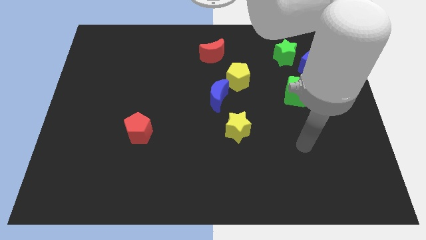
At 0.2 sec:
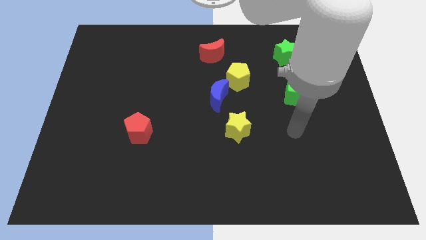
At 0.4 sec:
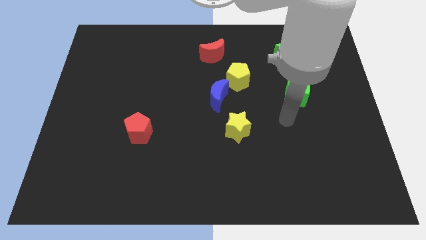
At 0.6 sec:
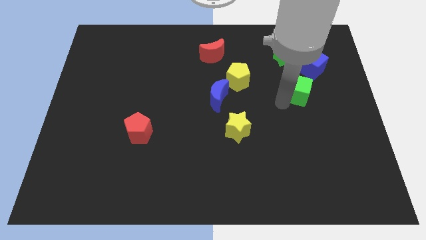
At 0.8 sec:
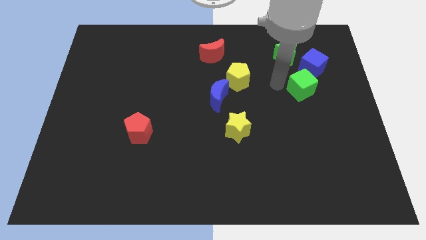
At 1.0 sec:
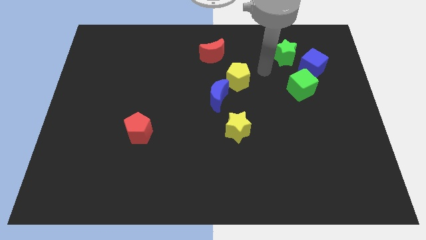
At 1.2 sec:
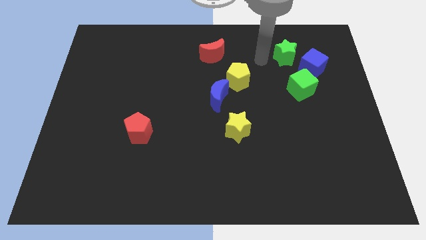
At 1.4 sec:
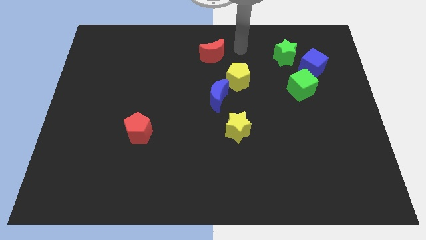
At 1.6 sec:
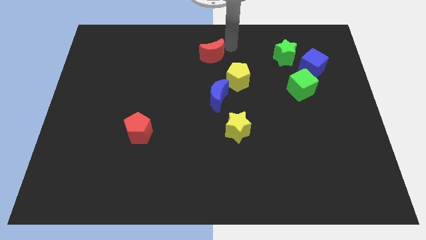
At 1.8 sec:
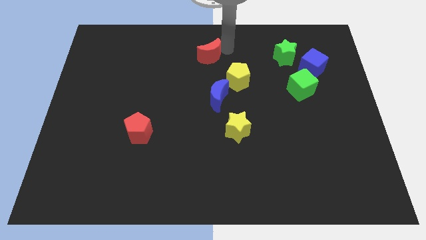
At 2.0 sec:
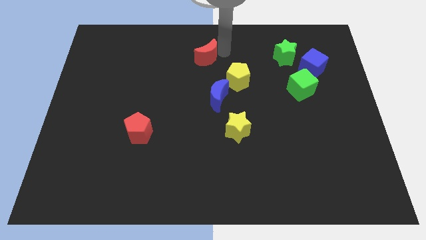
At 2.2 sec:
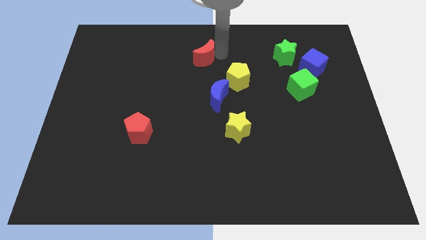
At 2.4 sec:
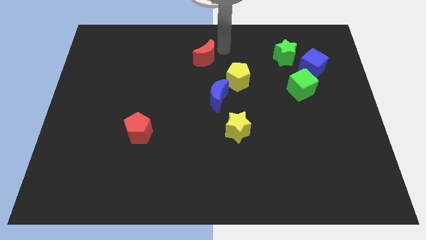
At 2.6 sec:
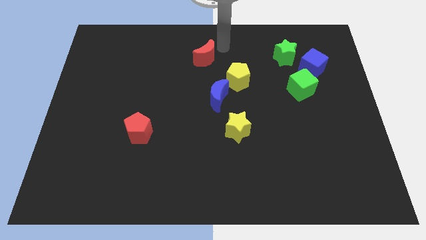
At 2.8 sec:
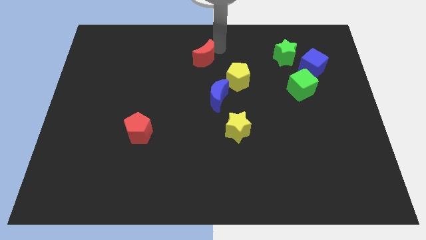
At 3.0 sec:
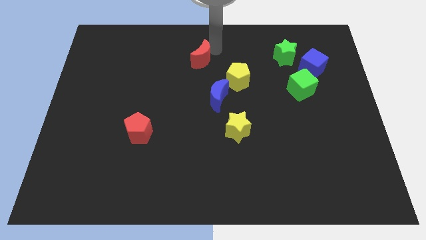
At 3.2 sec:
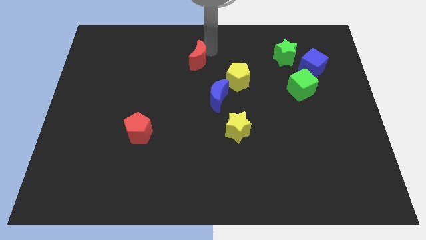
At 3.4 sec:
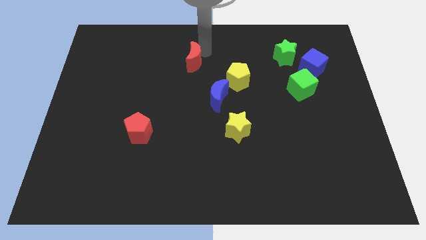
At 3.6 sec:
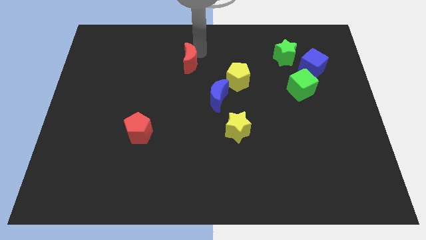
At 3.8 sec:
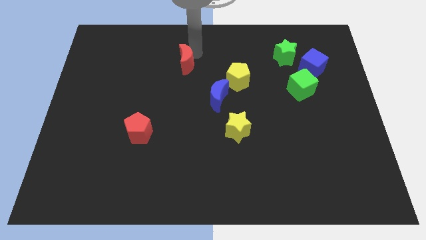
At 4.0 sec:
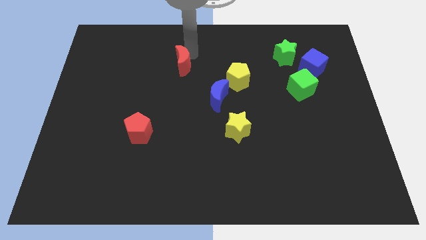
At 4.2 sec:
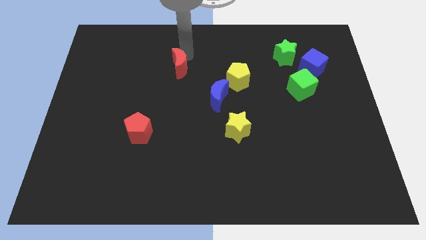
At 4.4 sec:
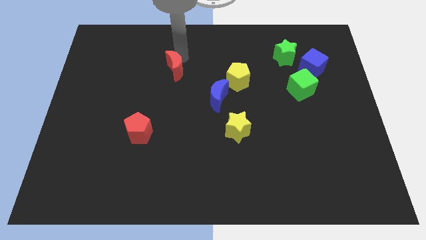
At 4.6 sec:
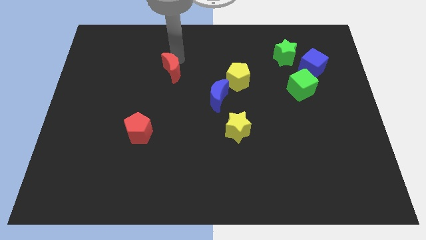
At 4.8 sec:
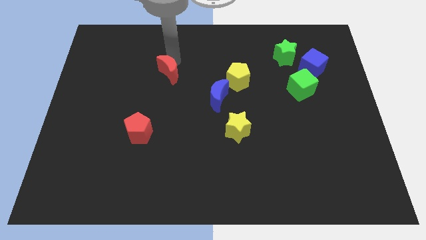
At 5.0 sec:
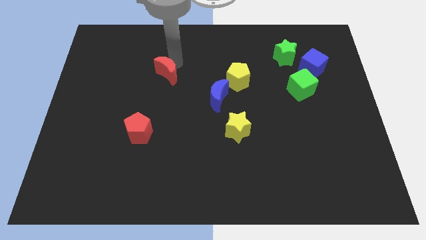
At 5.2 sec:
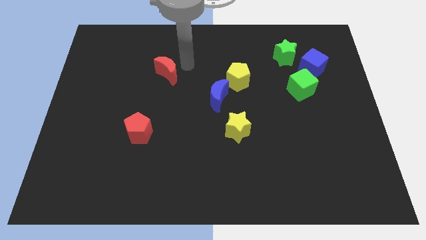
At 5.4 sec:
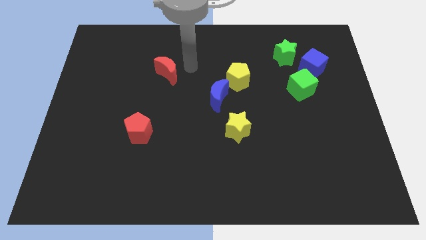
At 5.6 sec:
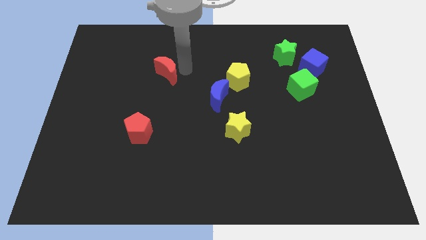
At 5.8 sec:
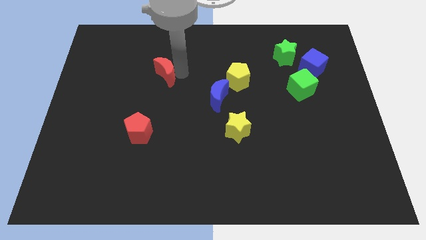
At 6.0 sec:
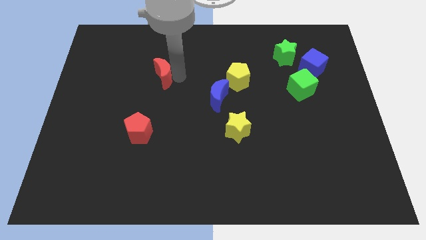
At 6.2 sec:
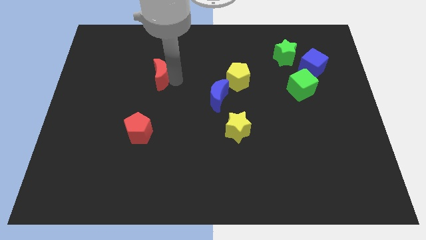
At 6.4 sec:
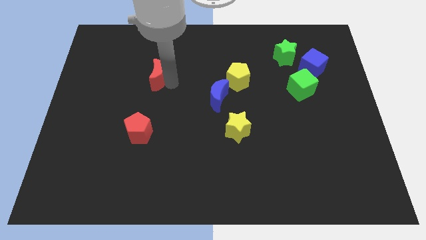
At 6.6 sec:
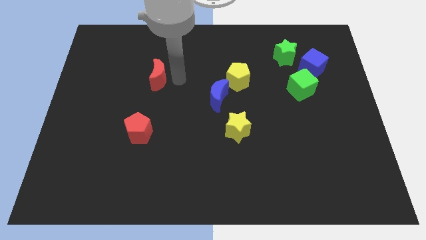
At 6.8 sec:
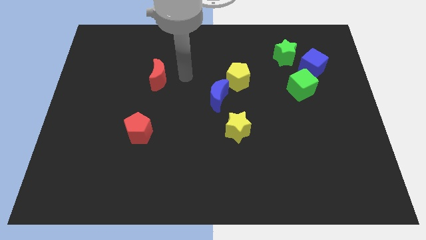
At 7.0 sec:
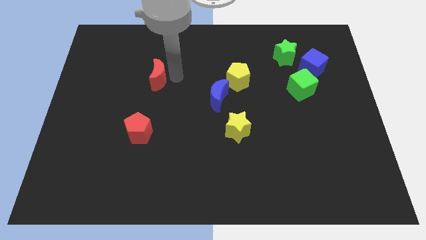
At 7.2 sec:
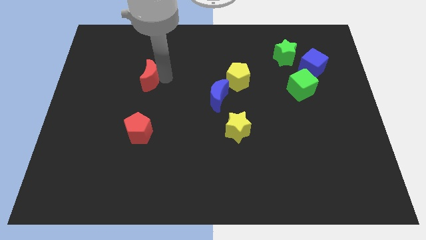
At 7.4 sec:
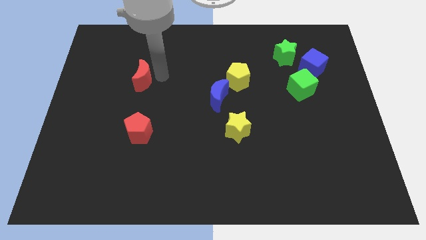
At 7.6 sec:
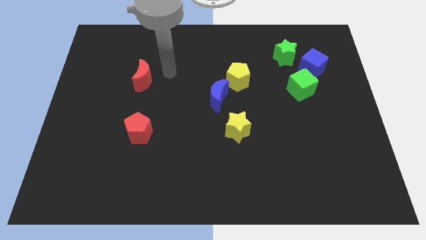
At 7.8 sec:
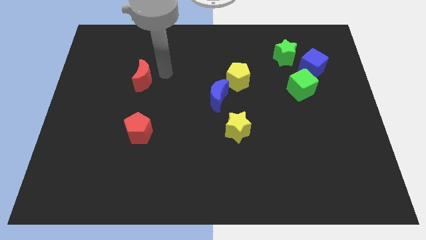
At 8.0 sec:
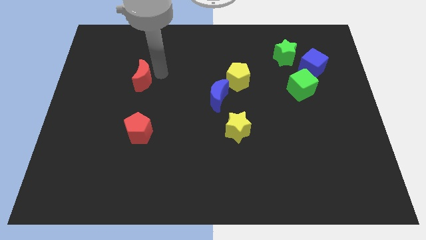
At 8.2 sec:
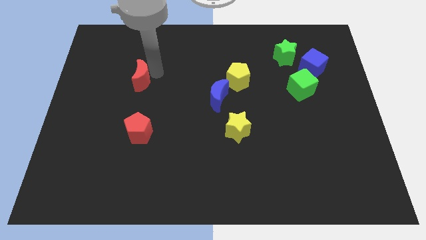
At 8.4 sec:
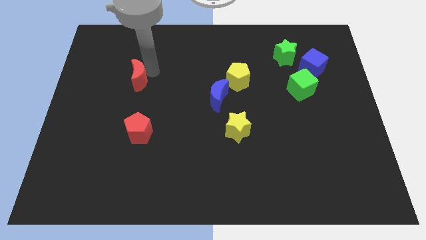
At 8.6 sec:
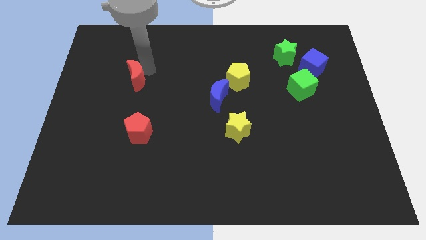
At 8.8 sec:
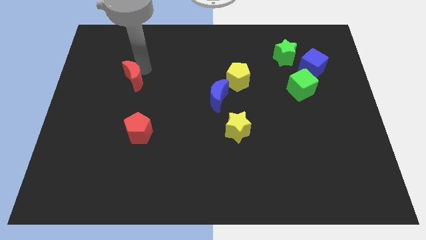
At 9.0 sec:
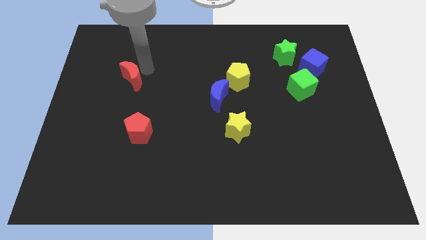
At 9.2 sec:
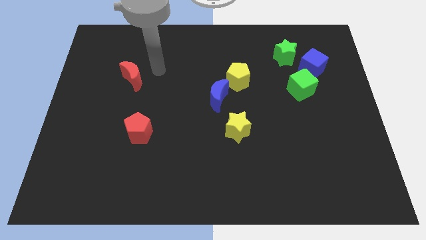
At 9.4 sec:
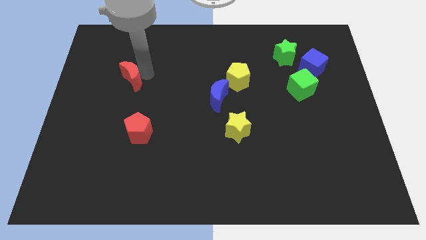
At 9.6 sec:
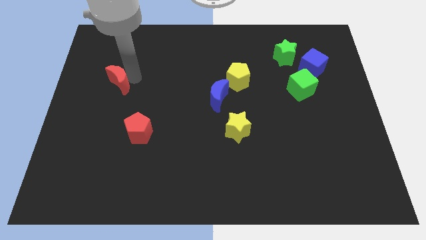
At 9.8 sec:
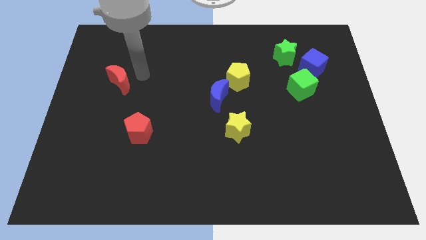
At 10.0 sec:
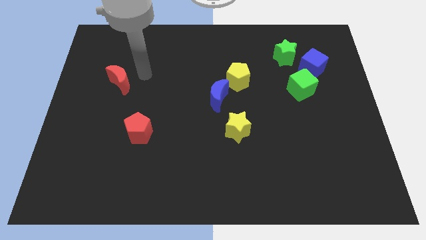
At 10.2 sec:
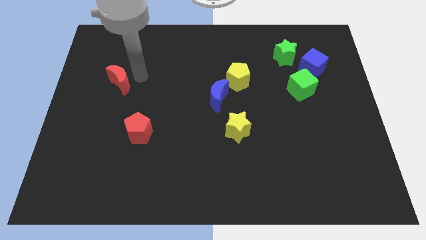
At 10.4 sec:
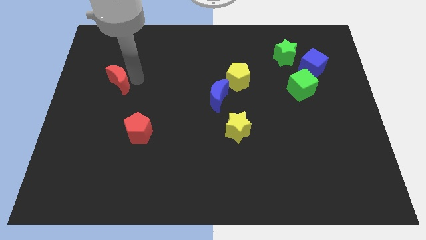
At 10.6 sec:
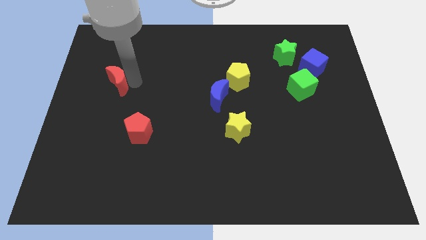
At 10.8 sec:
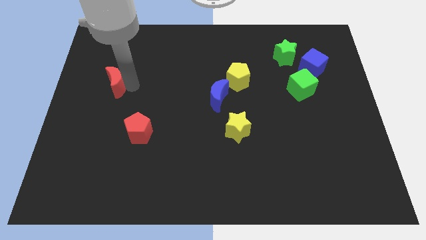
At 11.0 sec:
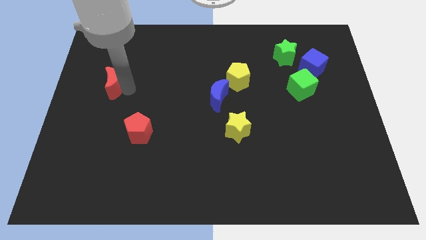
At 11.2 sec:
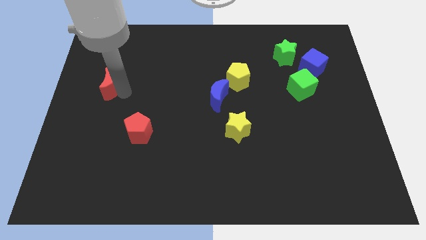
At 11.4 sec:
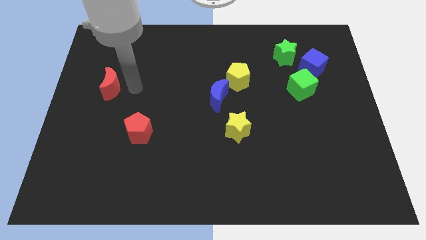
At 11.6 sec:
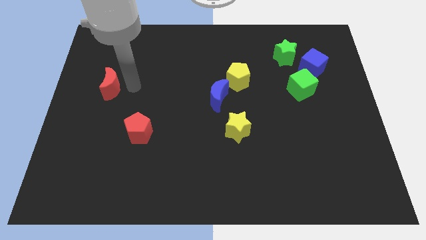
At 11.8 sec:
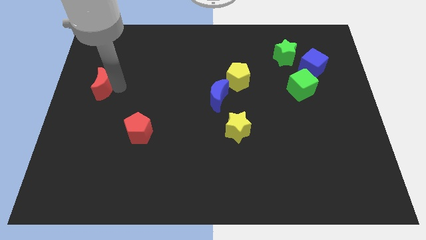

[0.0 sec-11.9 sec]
put the red moon to the left side

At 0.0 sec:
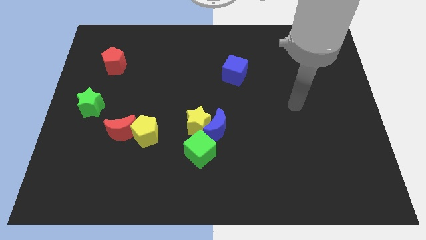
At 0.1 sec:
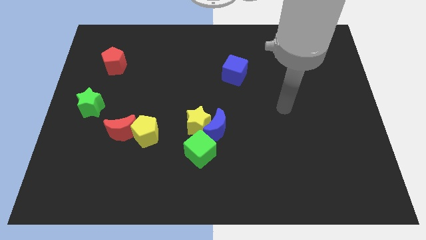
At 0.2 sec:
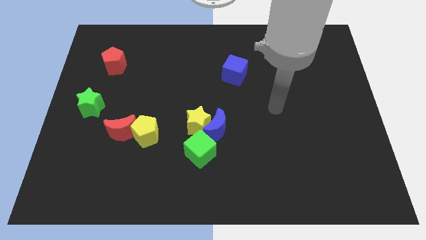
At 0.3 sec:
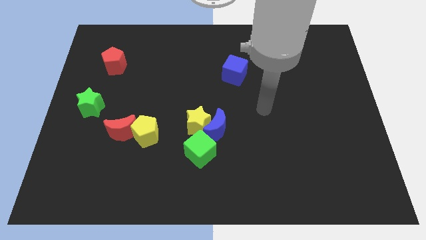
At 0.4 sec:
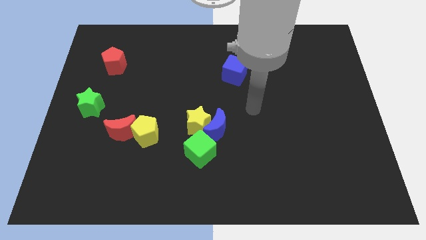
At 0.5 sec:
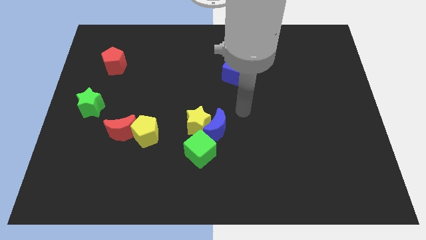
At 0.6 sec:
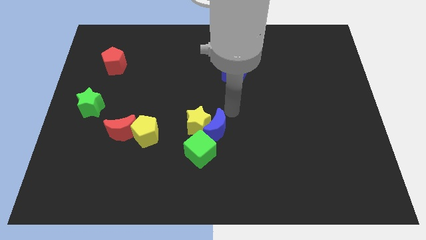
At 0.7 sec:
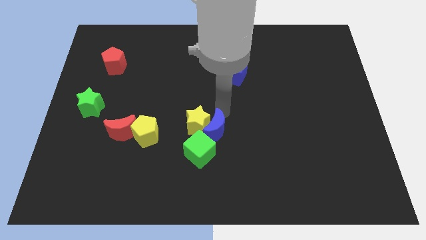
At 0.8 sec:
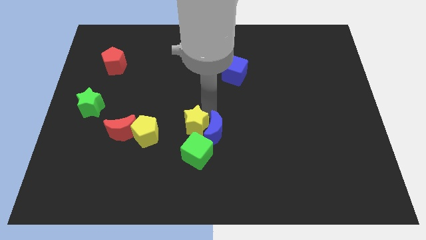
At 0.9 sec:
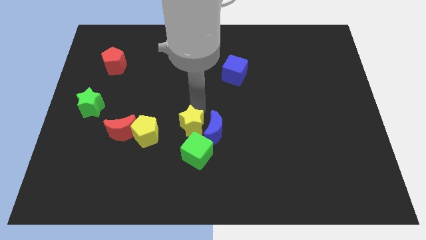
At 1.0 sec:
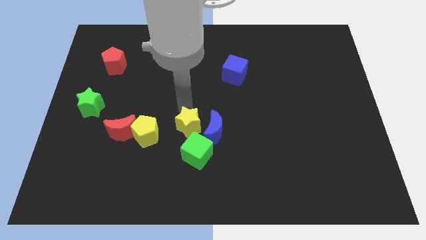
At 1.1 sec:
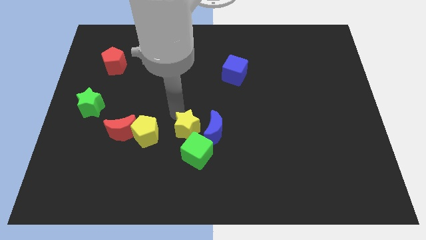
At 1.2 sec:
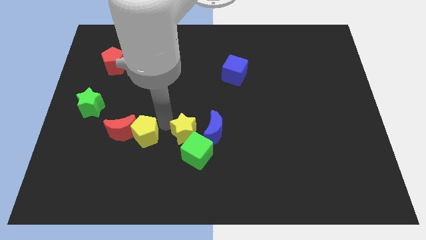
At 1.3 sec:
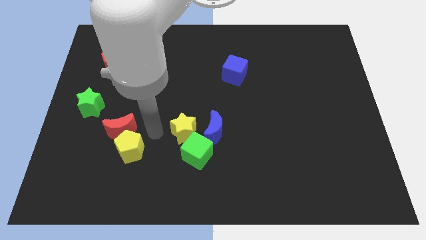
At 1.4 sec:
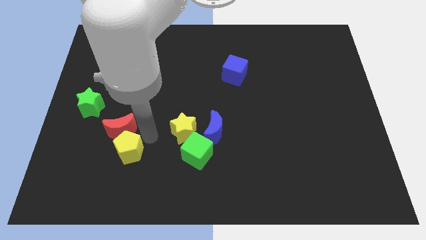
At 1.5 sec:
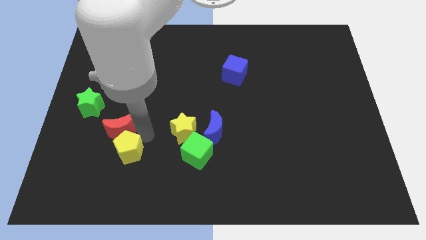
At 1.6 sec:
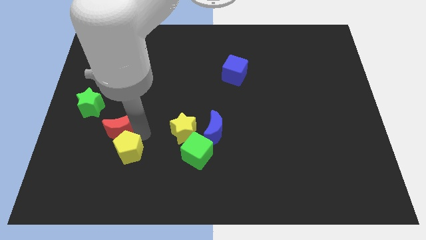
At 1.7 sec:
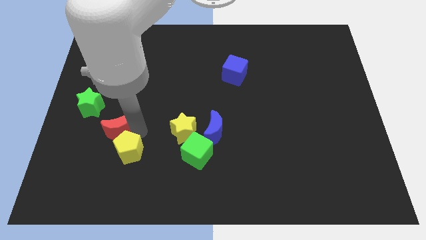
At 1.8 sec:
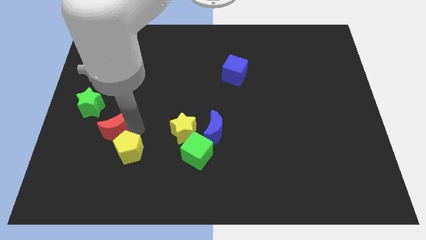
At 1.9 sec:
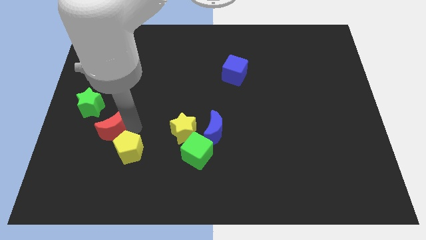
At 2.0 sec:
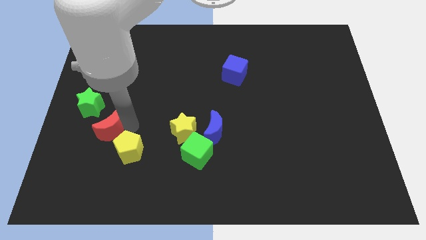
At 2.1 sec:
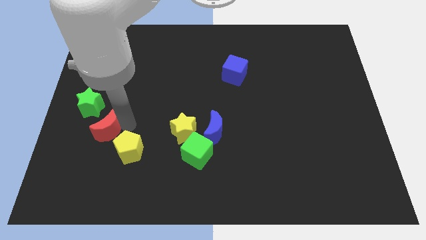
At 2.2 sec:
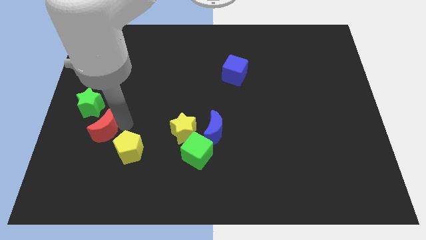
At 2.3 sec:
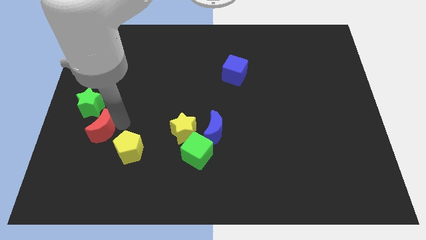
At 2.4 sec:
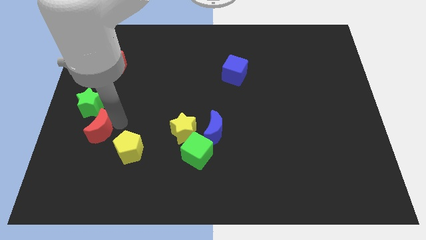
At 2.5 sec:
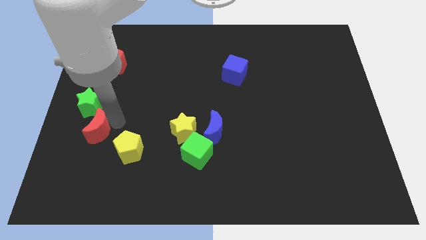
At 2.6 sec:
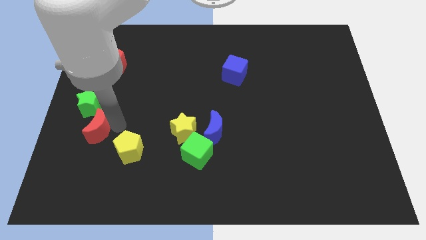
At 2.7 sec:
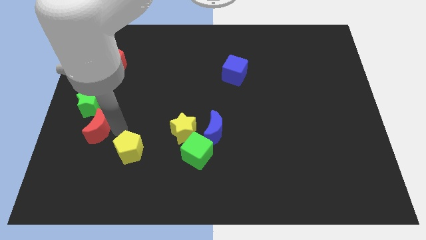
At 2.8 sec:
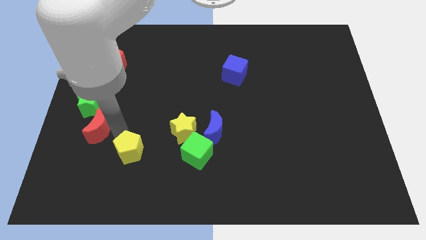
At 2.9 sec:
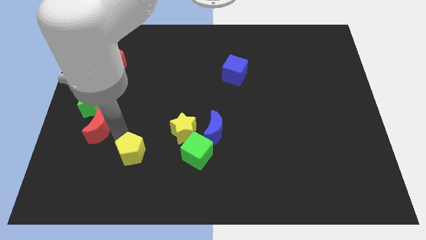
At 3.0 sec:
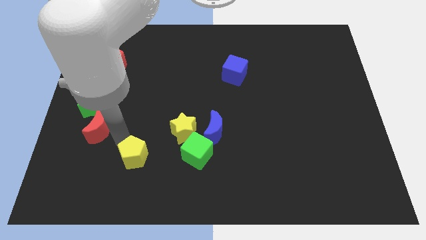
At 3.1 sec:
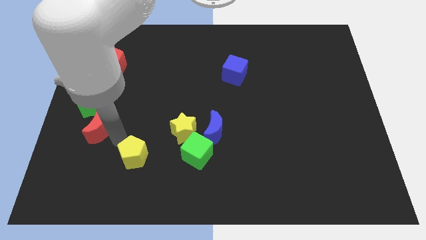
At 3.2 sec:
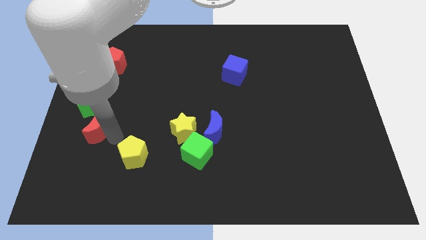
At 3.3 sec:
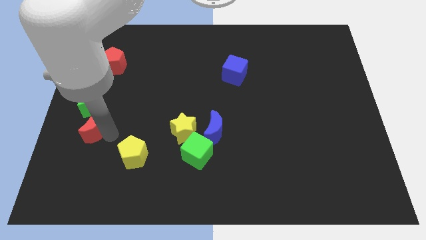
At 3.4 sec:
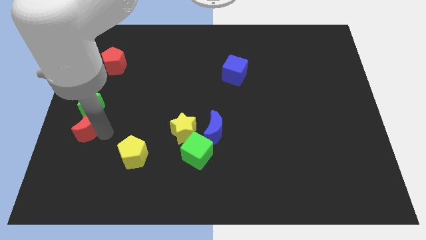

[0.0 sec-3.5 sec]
slide the red moon to the left side of the board
